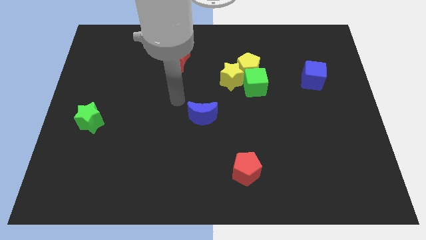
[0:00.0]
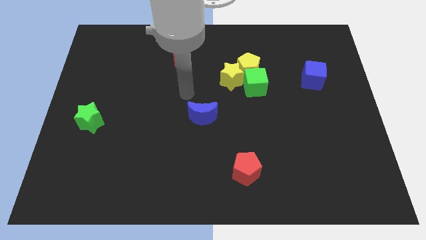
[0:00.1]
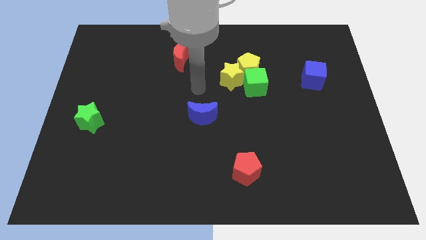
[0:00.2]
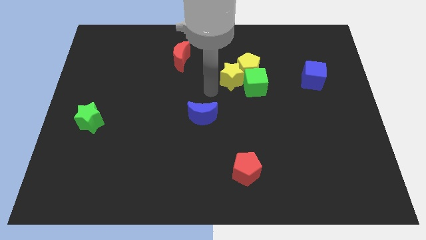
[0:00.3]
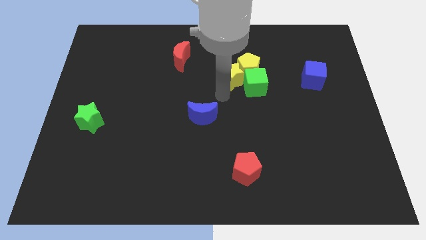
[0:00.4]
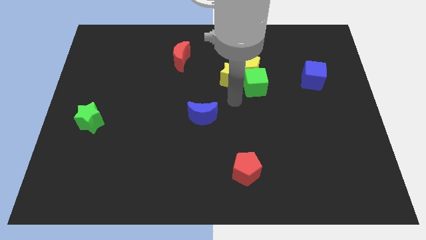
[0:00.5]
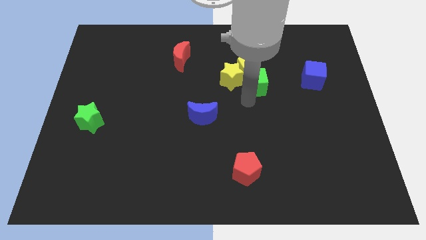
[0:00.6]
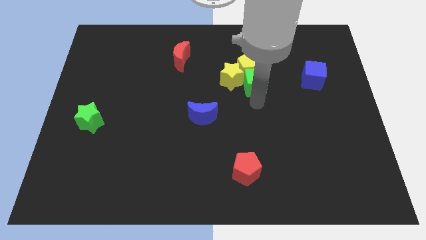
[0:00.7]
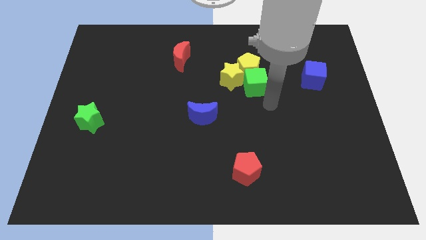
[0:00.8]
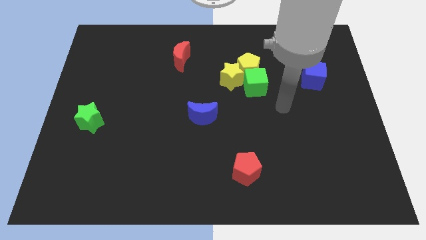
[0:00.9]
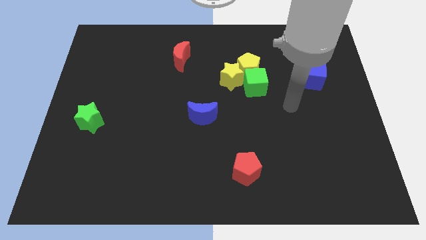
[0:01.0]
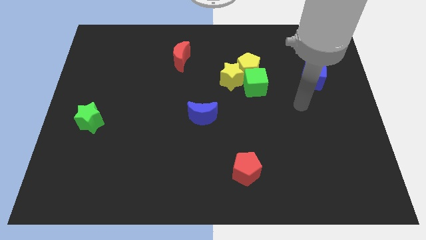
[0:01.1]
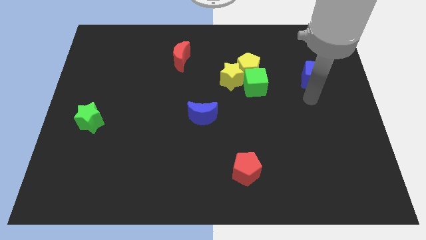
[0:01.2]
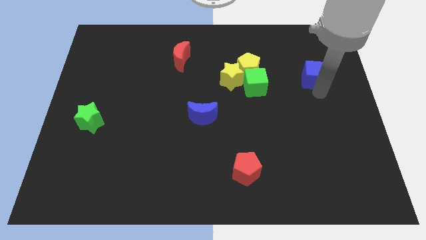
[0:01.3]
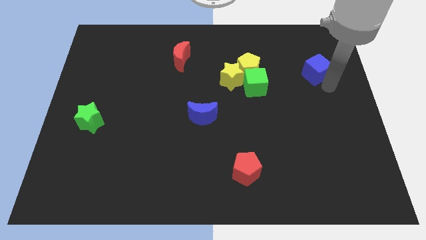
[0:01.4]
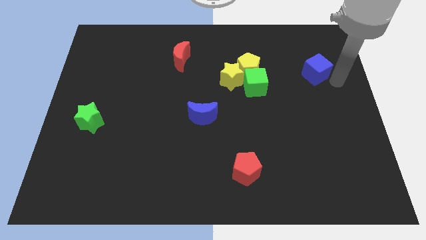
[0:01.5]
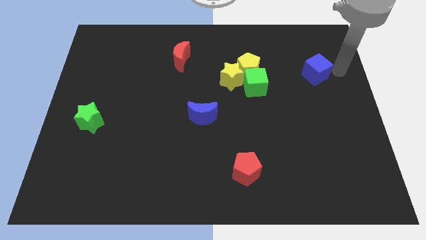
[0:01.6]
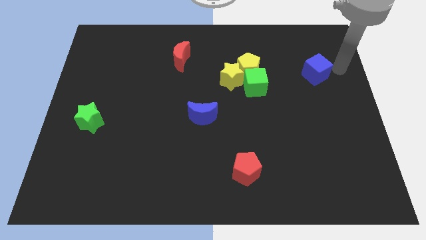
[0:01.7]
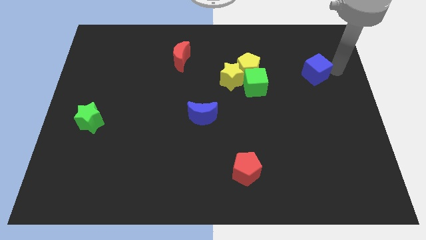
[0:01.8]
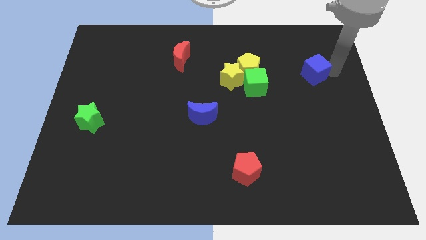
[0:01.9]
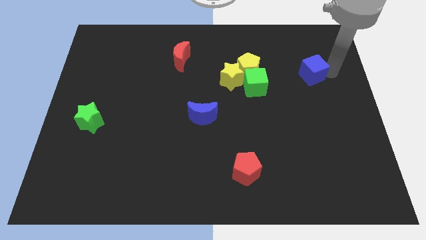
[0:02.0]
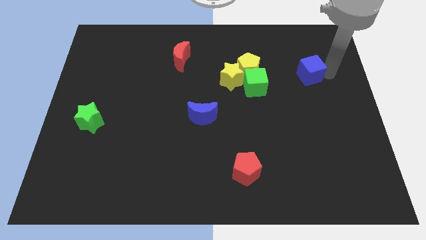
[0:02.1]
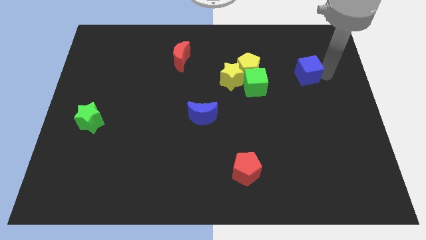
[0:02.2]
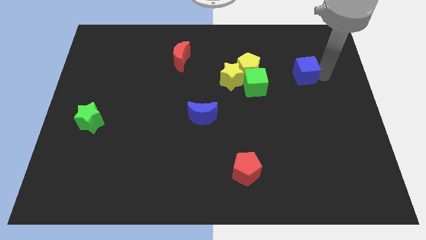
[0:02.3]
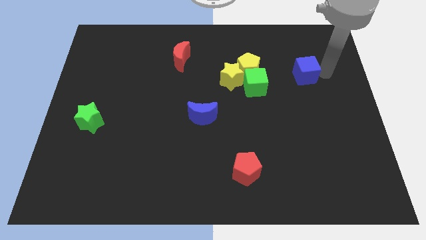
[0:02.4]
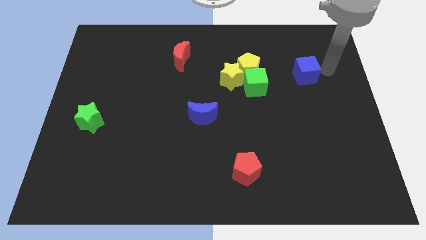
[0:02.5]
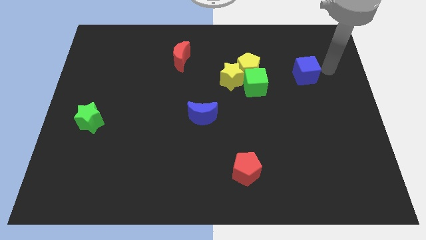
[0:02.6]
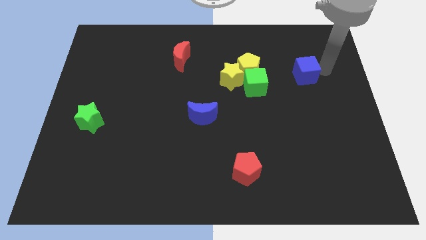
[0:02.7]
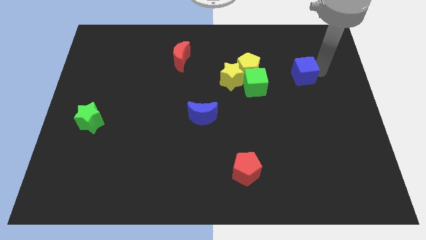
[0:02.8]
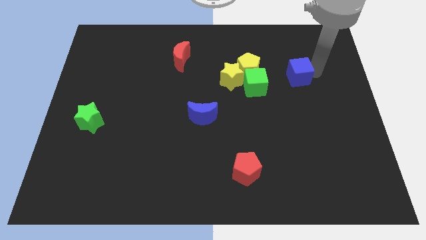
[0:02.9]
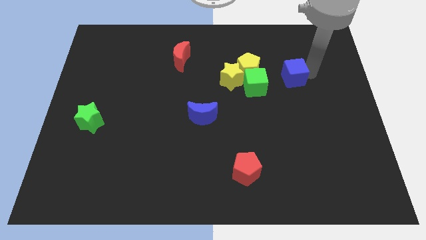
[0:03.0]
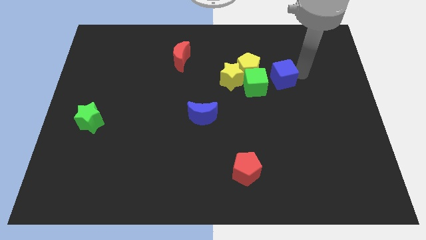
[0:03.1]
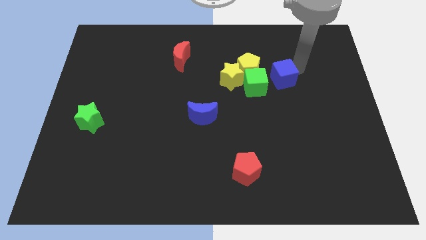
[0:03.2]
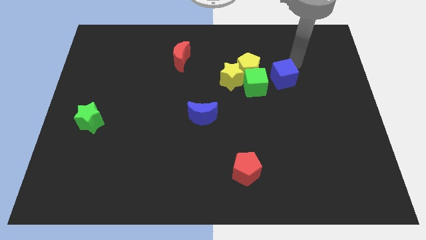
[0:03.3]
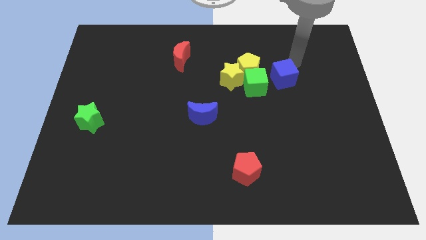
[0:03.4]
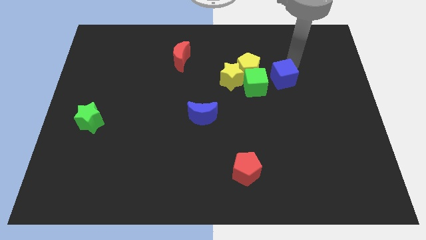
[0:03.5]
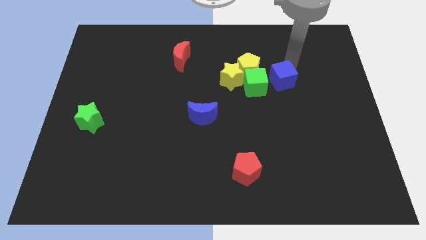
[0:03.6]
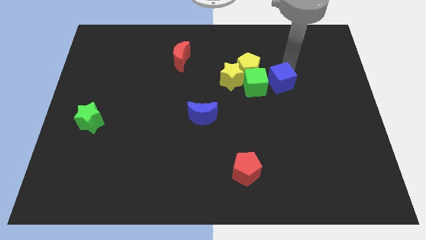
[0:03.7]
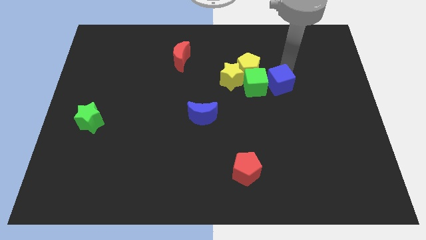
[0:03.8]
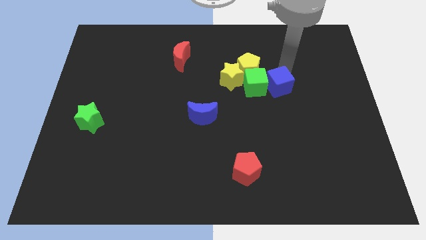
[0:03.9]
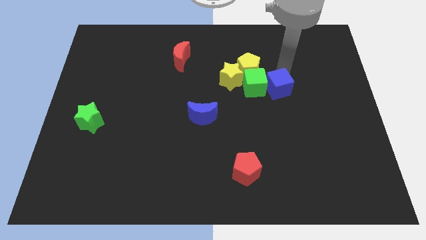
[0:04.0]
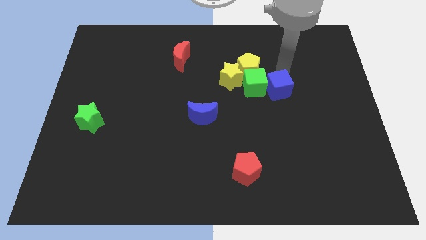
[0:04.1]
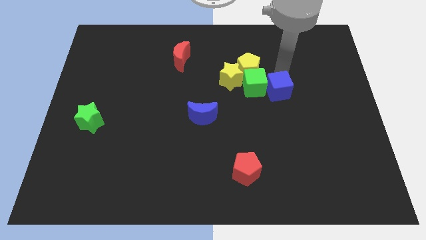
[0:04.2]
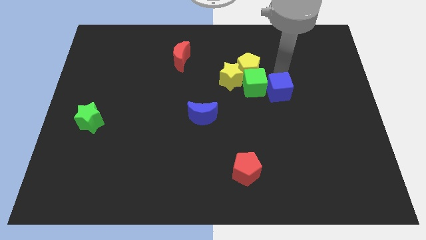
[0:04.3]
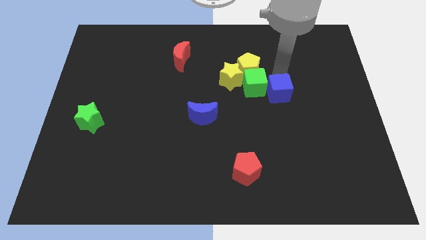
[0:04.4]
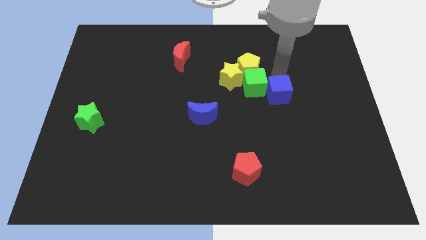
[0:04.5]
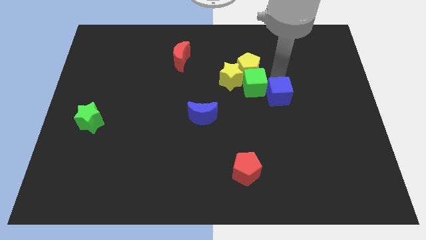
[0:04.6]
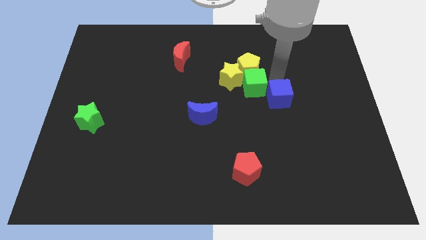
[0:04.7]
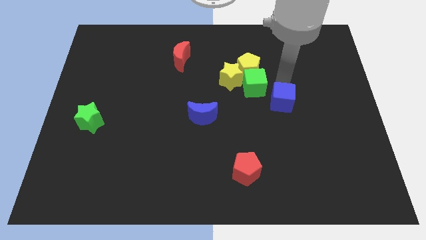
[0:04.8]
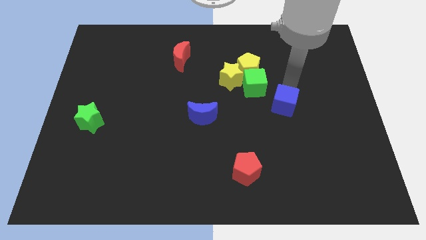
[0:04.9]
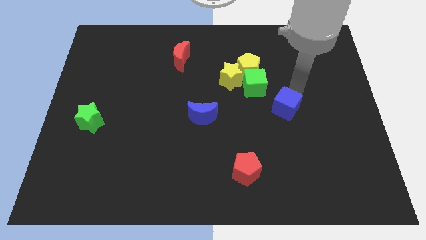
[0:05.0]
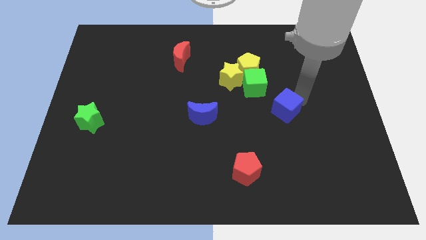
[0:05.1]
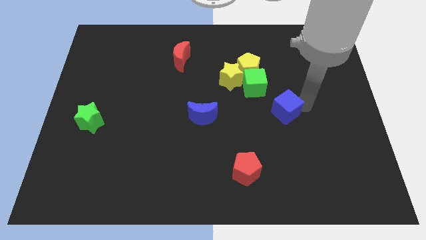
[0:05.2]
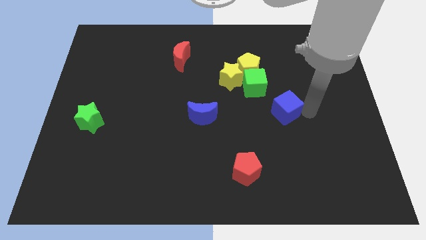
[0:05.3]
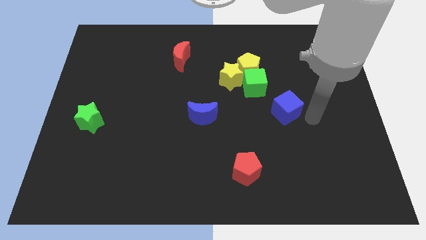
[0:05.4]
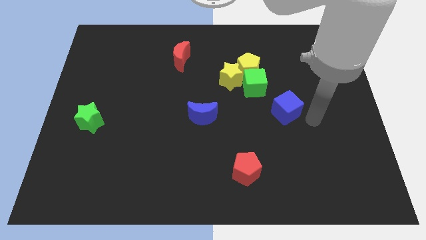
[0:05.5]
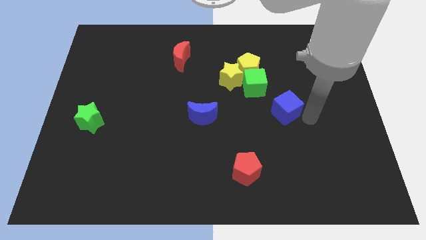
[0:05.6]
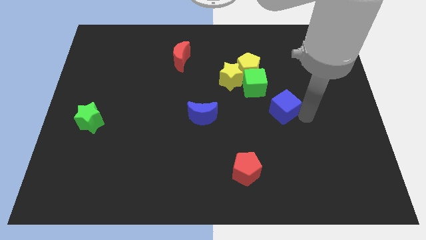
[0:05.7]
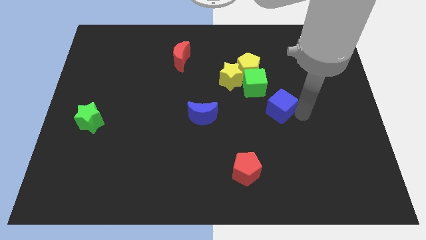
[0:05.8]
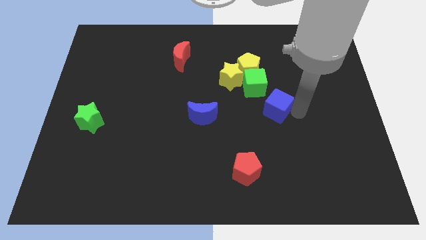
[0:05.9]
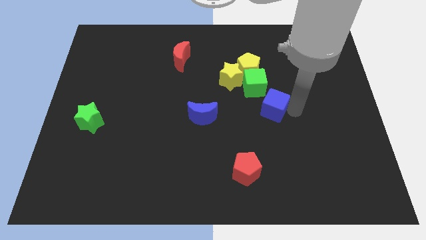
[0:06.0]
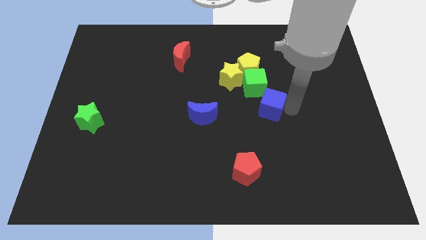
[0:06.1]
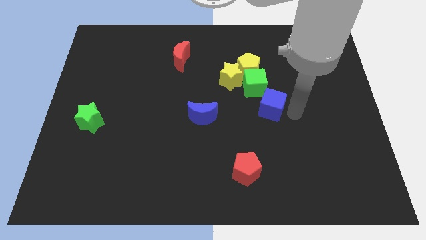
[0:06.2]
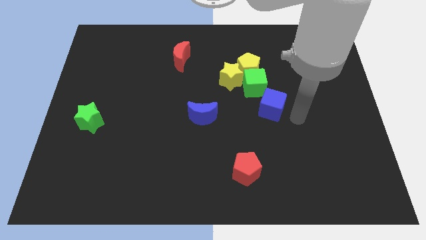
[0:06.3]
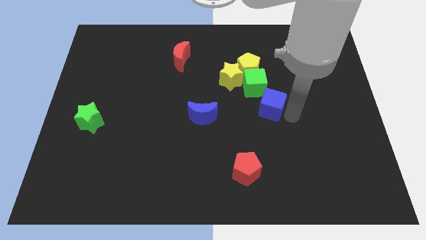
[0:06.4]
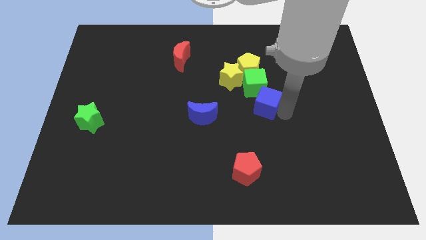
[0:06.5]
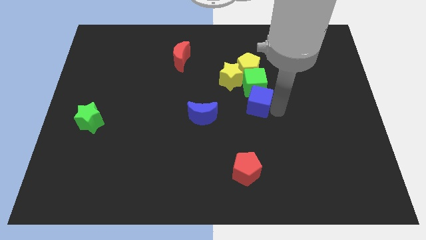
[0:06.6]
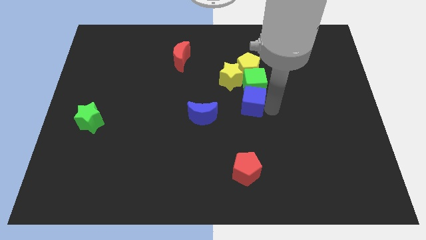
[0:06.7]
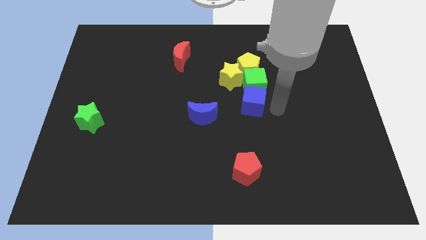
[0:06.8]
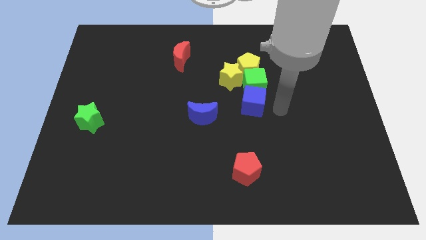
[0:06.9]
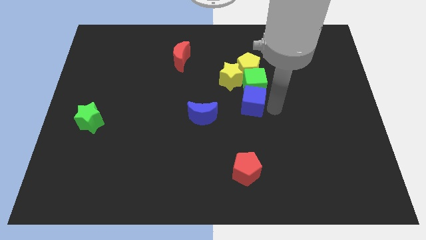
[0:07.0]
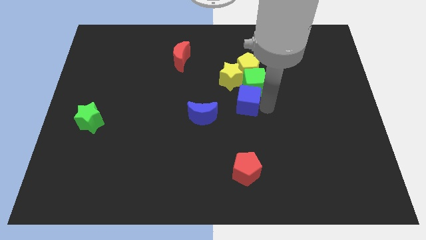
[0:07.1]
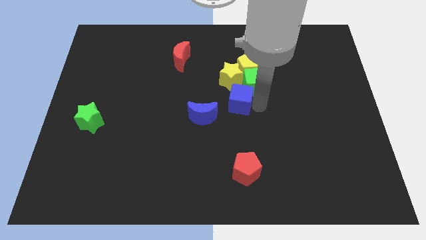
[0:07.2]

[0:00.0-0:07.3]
slide the blue cube to the top right of the blue moon
